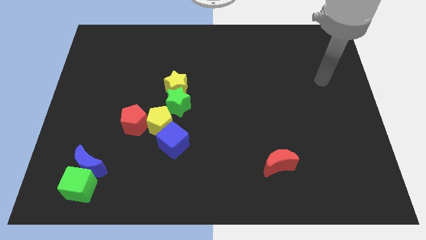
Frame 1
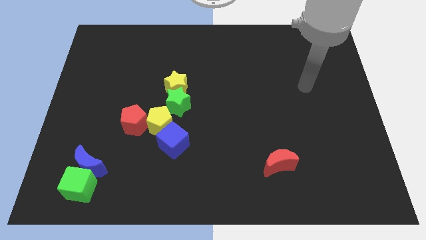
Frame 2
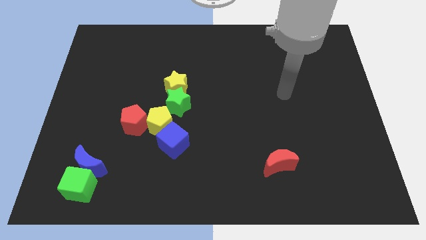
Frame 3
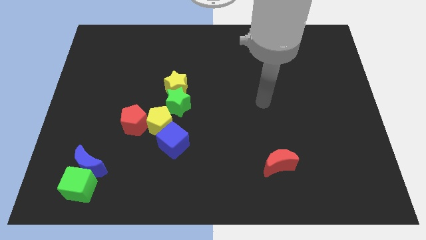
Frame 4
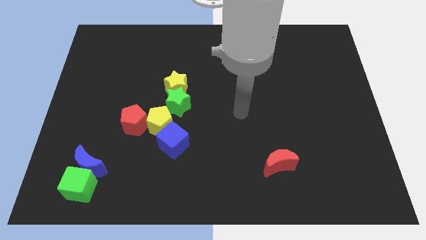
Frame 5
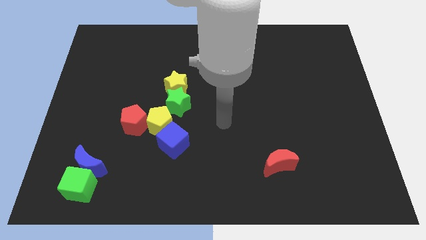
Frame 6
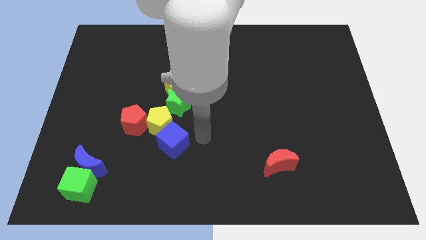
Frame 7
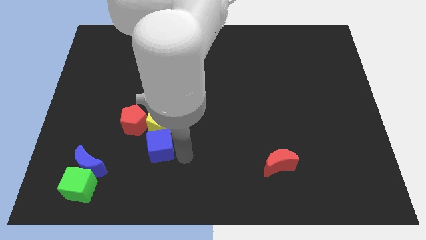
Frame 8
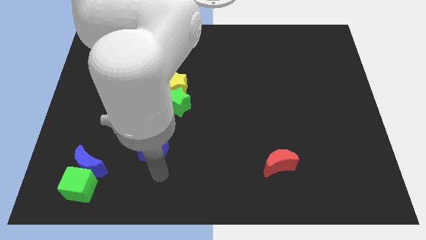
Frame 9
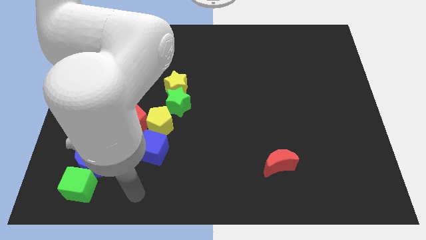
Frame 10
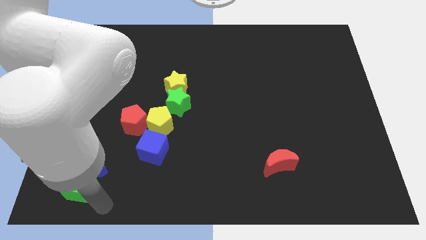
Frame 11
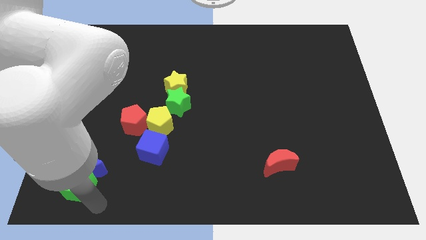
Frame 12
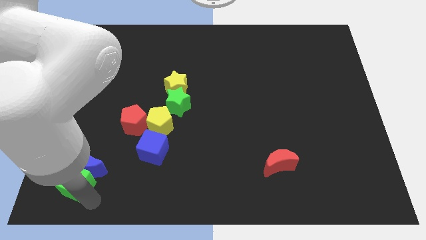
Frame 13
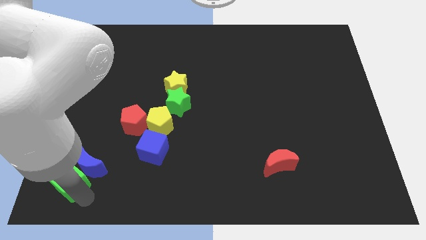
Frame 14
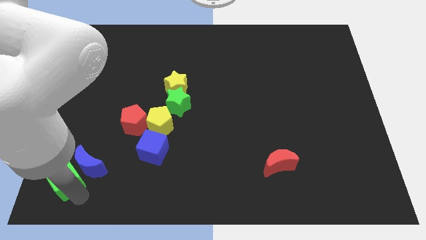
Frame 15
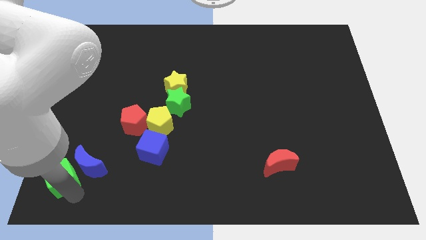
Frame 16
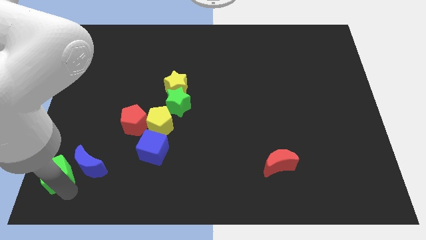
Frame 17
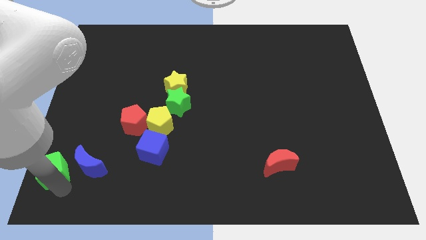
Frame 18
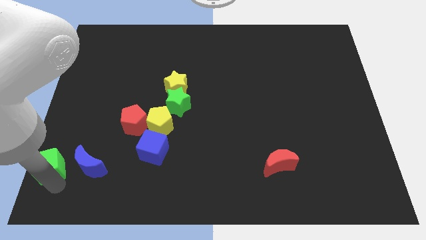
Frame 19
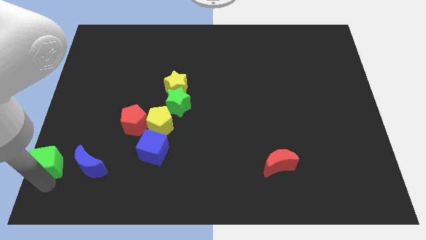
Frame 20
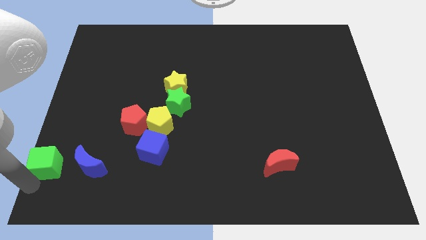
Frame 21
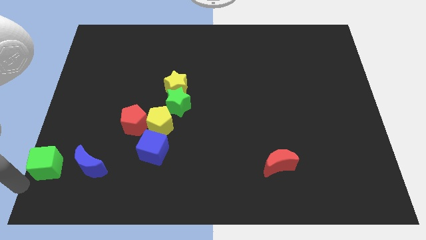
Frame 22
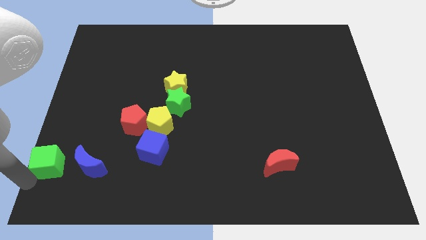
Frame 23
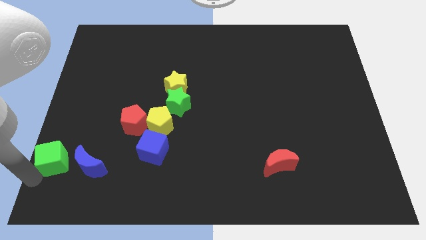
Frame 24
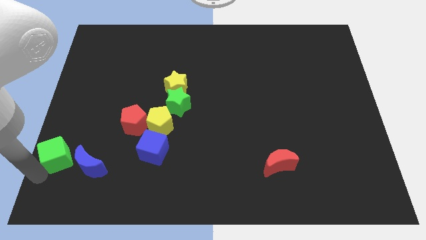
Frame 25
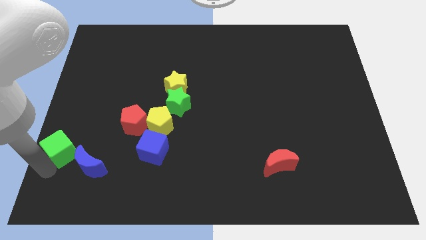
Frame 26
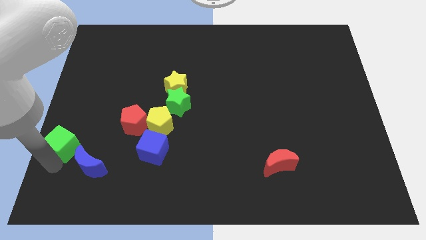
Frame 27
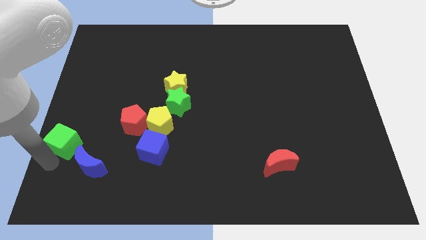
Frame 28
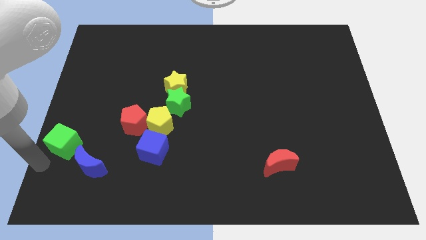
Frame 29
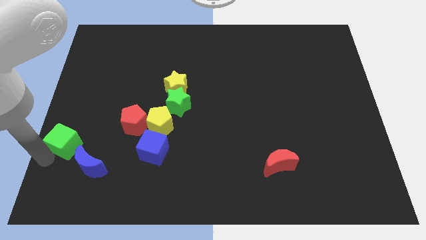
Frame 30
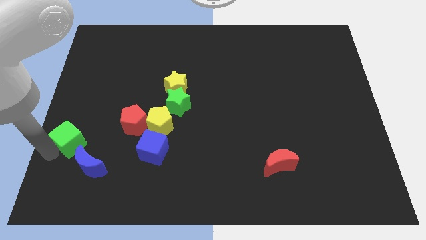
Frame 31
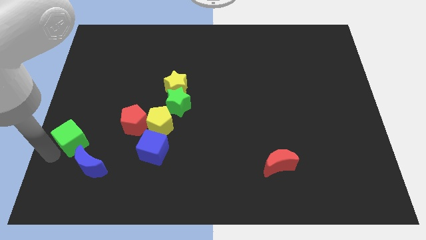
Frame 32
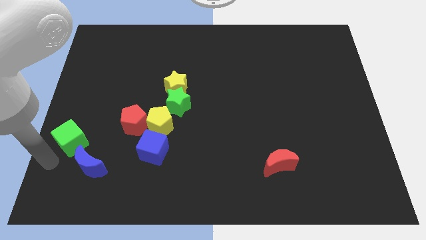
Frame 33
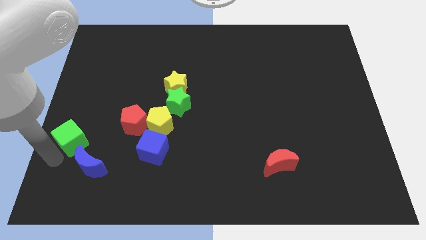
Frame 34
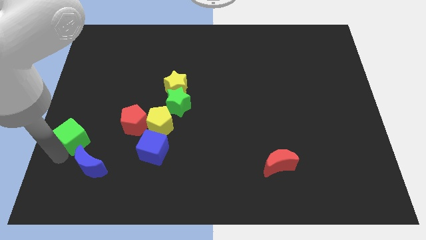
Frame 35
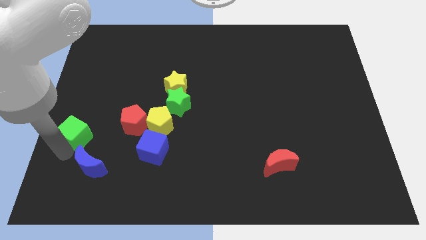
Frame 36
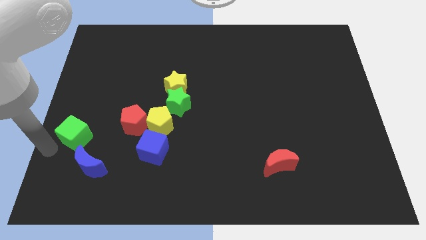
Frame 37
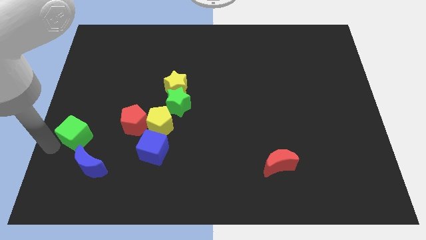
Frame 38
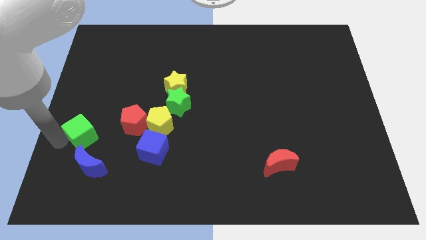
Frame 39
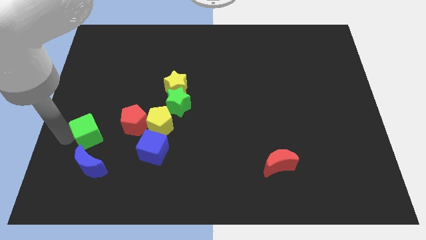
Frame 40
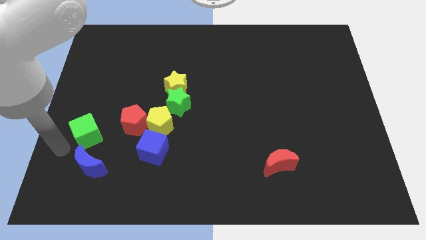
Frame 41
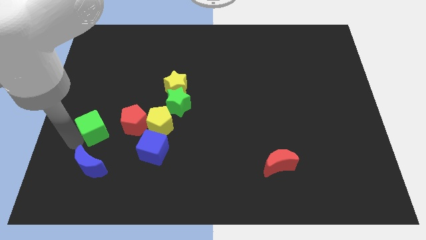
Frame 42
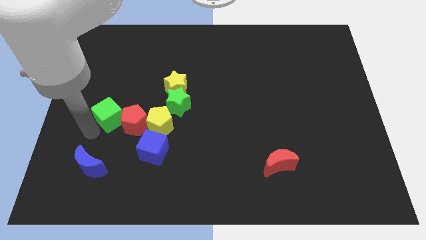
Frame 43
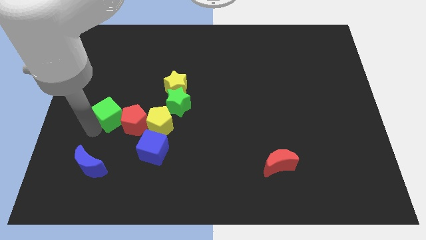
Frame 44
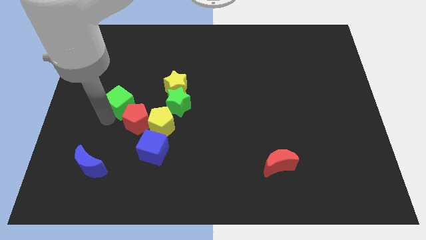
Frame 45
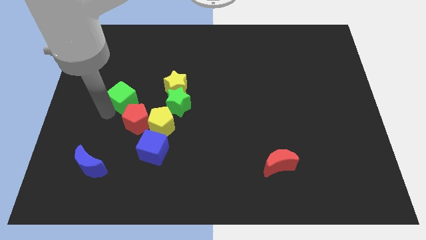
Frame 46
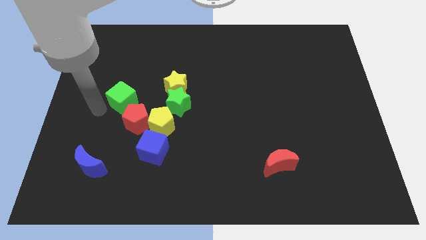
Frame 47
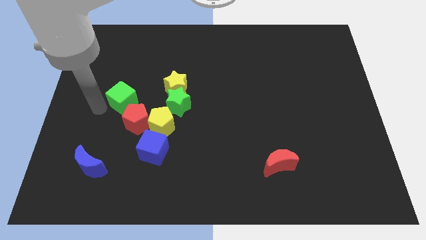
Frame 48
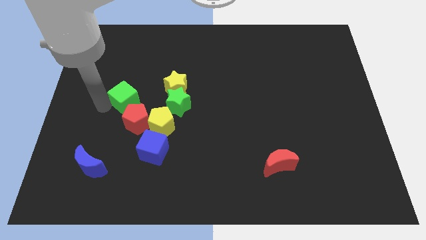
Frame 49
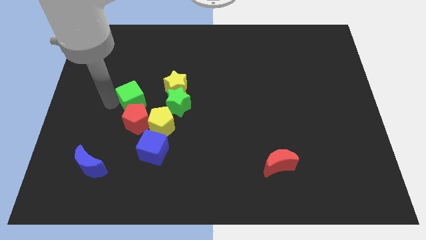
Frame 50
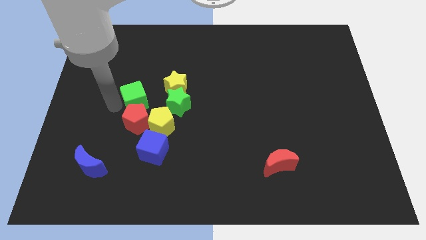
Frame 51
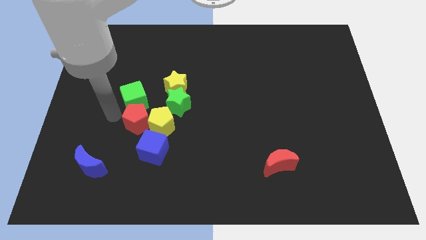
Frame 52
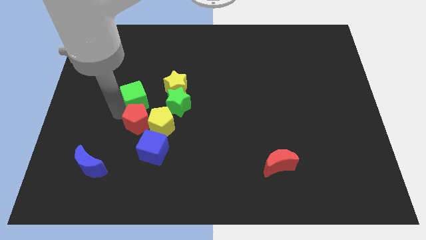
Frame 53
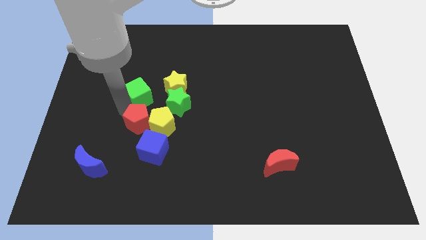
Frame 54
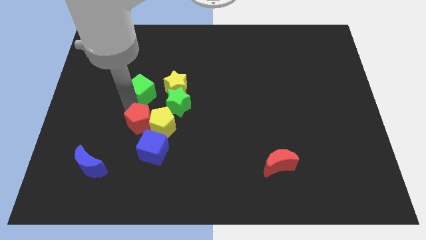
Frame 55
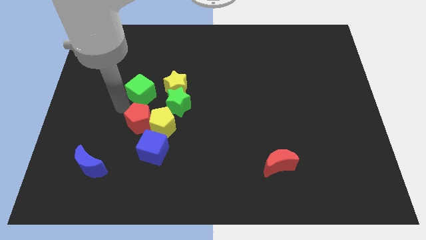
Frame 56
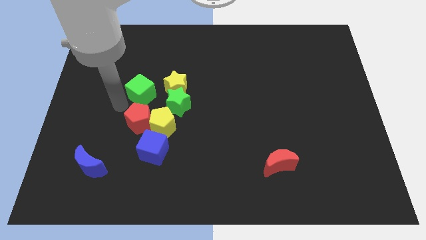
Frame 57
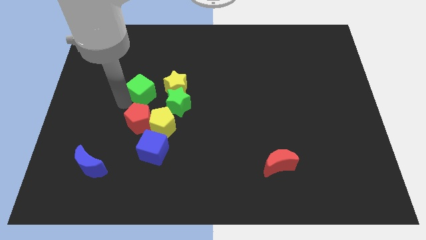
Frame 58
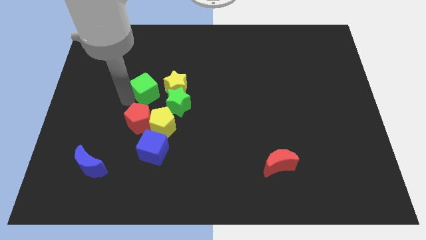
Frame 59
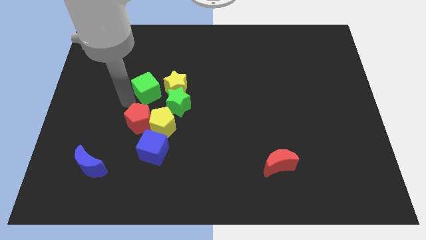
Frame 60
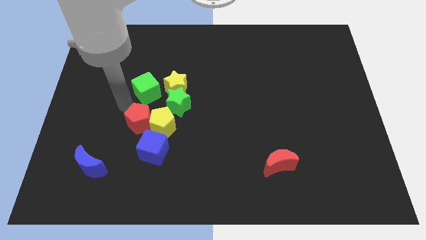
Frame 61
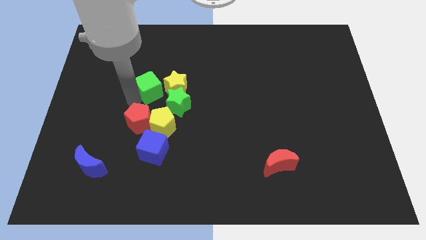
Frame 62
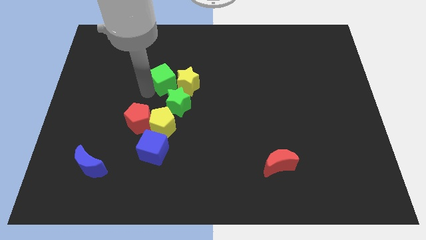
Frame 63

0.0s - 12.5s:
move the green cube to the top of the green star
